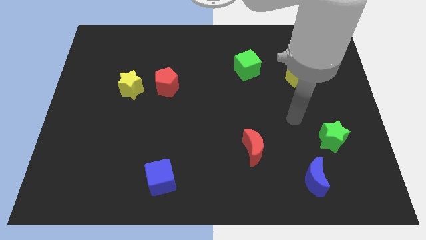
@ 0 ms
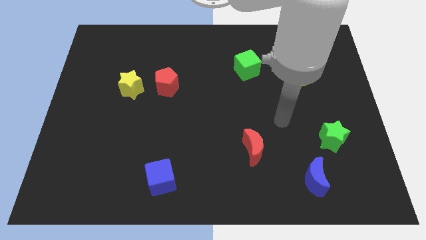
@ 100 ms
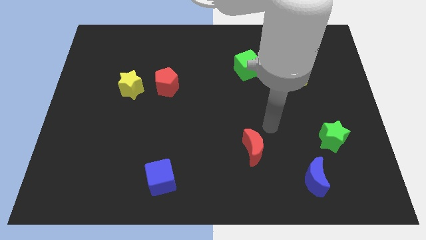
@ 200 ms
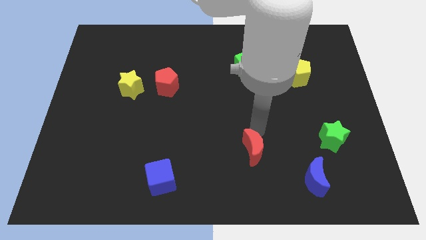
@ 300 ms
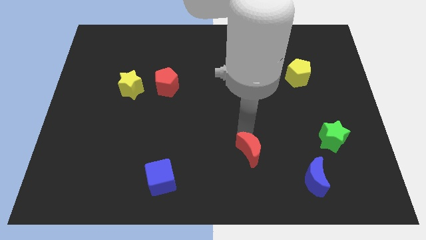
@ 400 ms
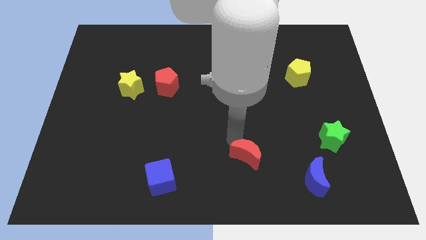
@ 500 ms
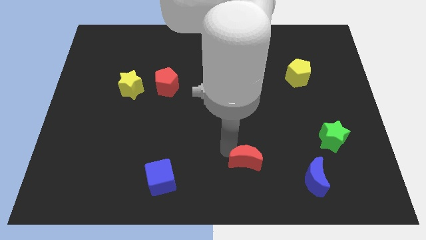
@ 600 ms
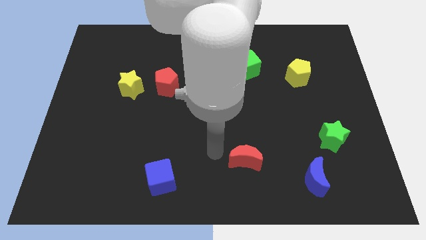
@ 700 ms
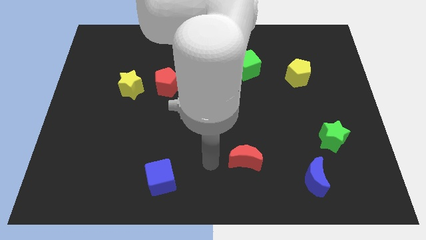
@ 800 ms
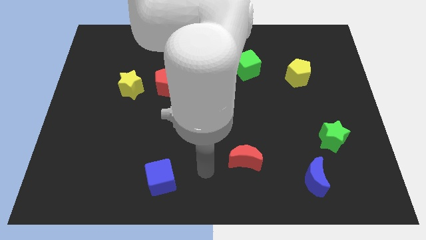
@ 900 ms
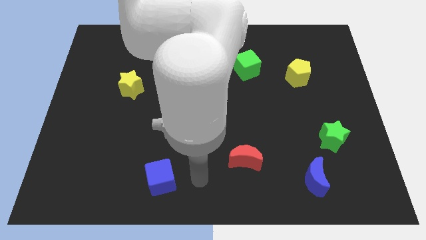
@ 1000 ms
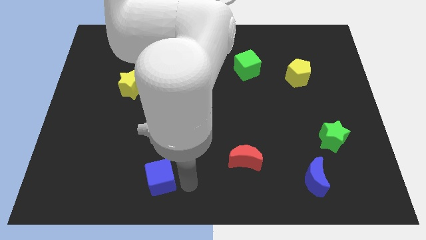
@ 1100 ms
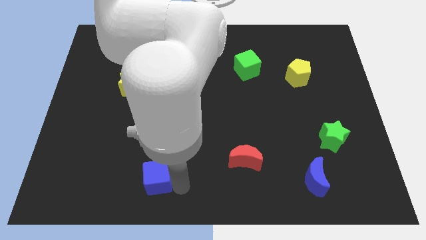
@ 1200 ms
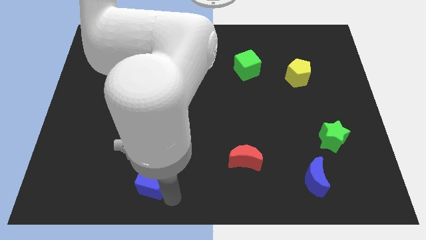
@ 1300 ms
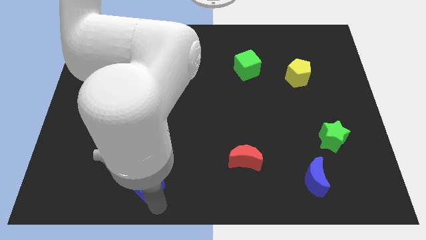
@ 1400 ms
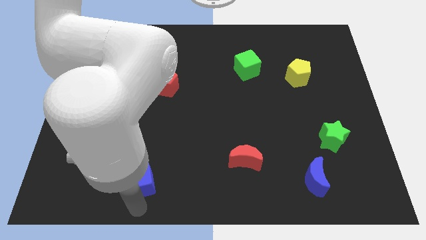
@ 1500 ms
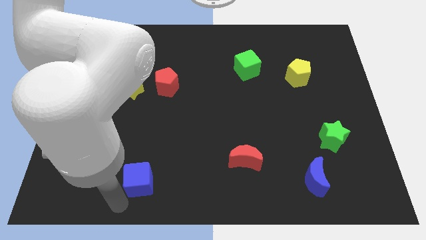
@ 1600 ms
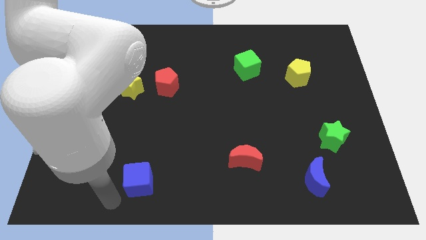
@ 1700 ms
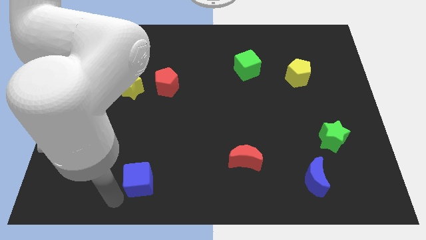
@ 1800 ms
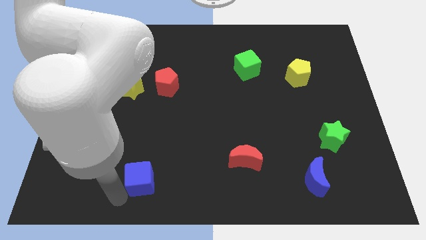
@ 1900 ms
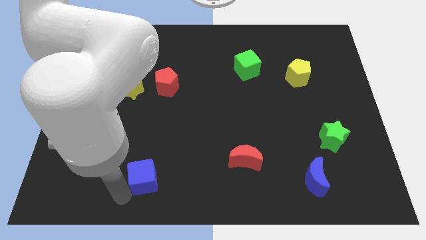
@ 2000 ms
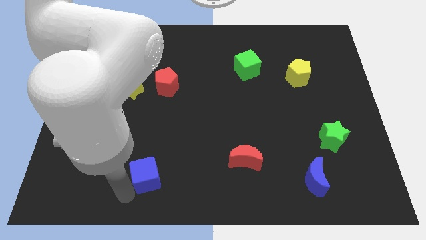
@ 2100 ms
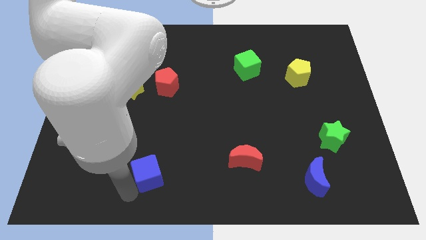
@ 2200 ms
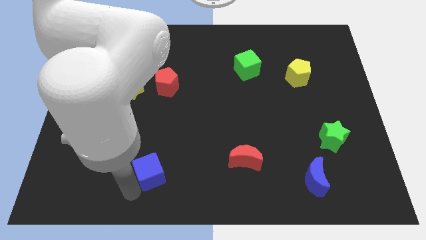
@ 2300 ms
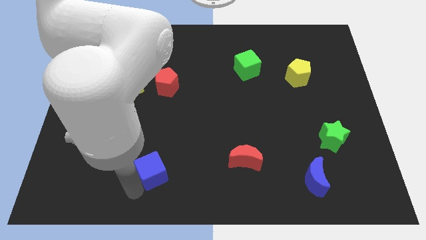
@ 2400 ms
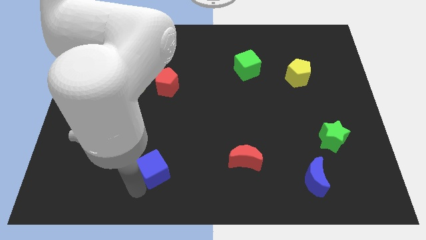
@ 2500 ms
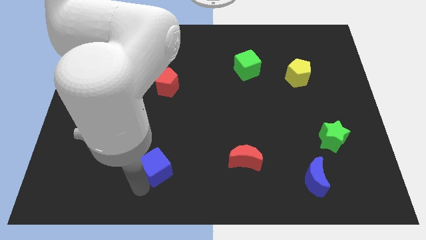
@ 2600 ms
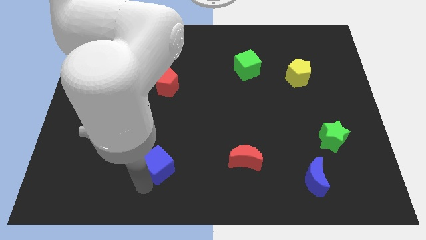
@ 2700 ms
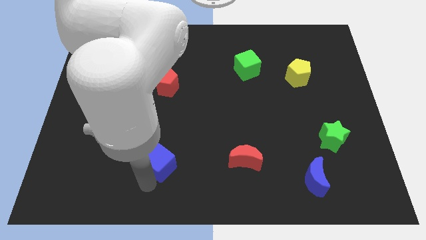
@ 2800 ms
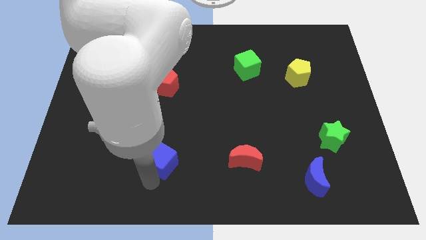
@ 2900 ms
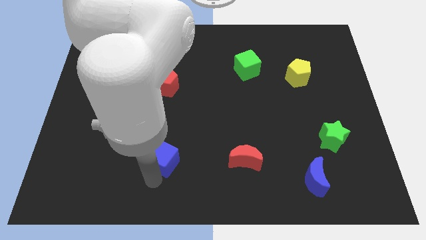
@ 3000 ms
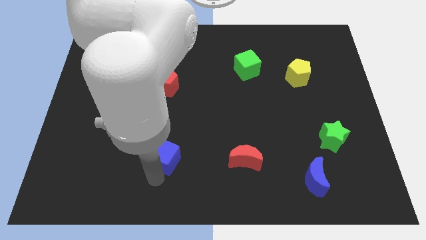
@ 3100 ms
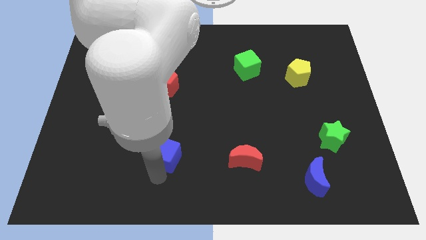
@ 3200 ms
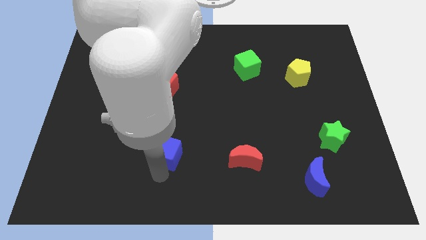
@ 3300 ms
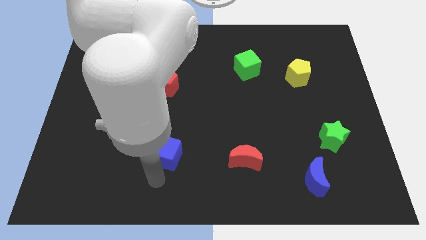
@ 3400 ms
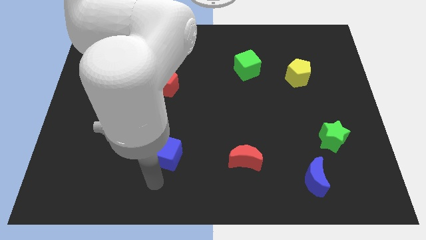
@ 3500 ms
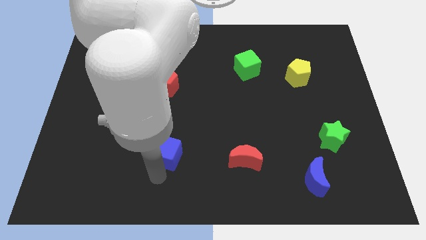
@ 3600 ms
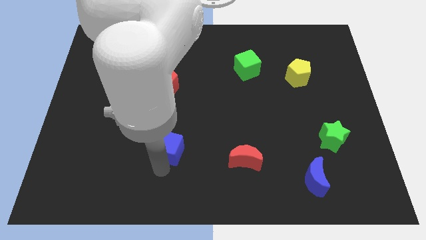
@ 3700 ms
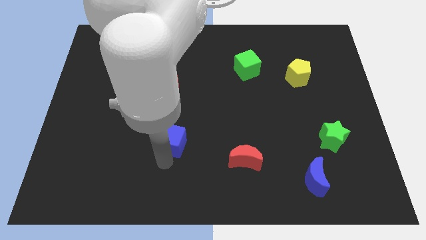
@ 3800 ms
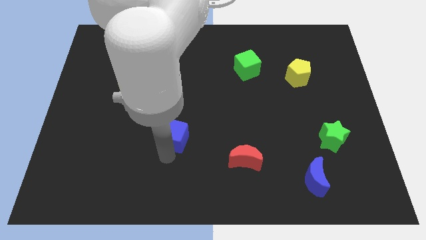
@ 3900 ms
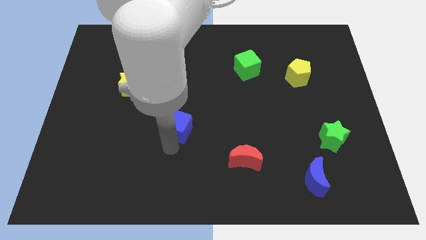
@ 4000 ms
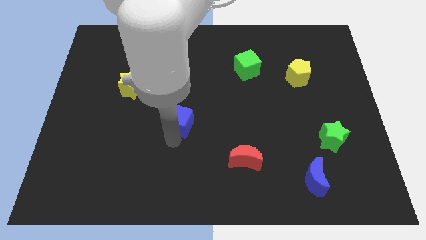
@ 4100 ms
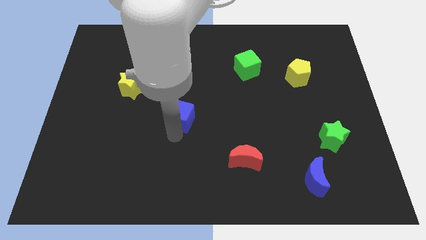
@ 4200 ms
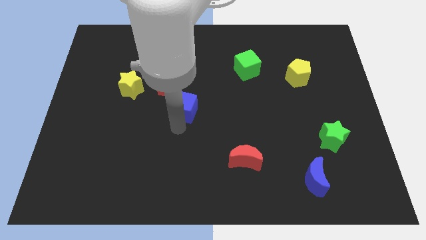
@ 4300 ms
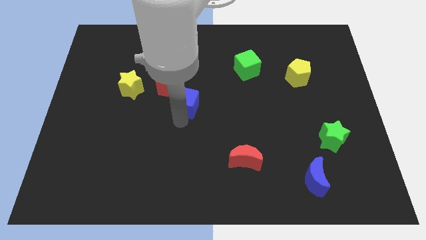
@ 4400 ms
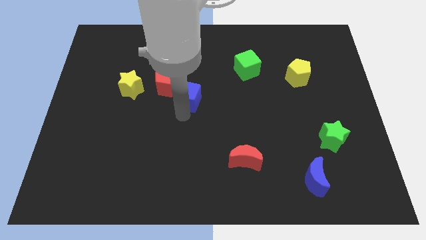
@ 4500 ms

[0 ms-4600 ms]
push the blue cube upwards

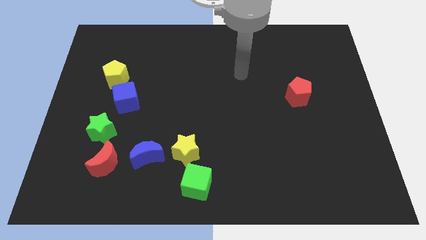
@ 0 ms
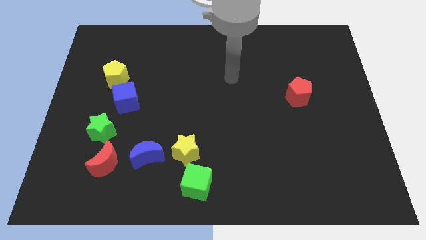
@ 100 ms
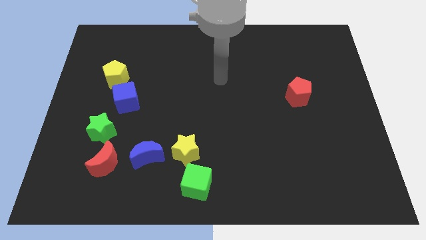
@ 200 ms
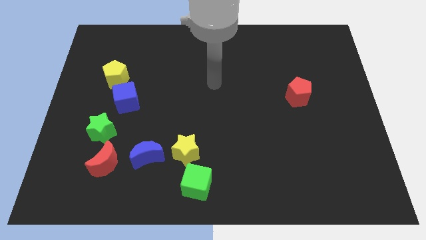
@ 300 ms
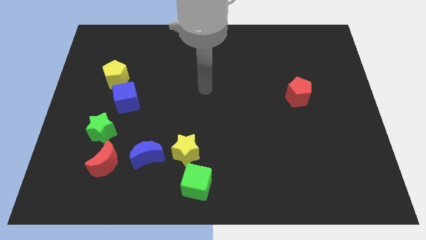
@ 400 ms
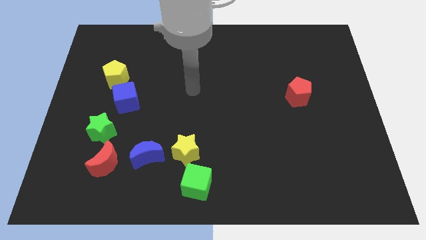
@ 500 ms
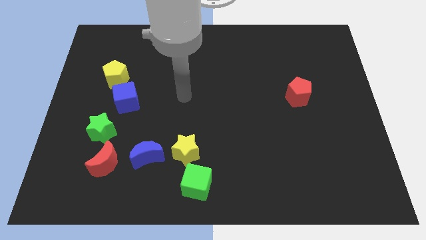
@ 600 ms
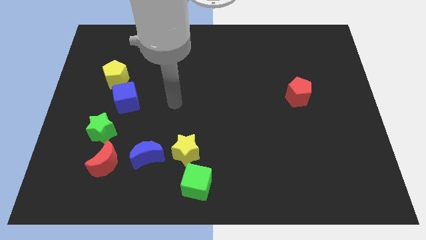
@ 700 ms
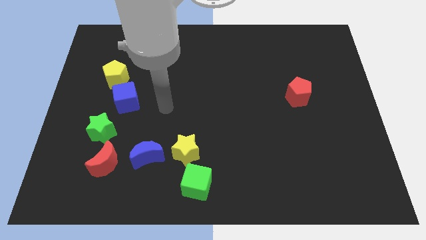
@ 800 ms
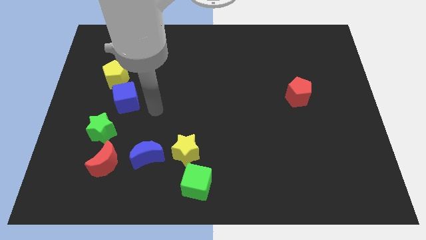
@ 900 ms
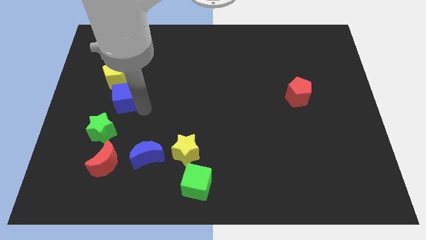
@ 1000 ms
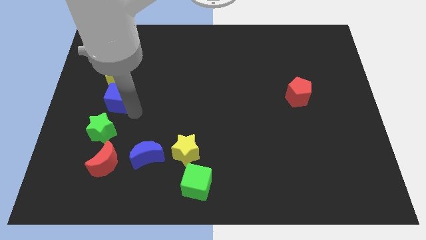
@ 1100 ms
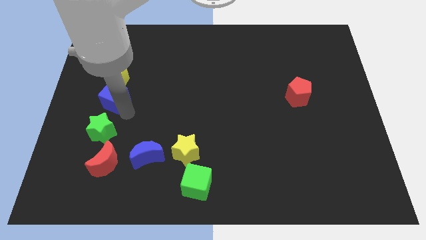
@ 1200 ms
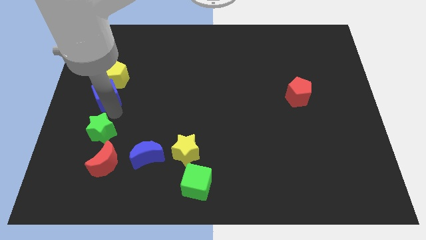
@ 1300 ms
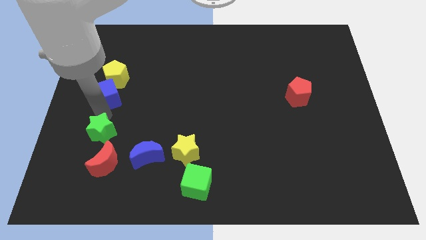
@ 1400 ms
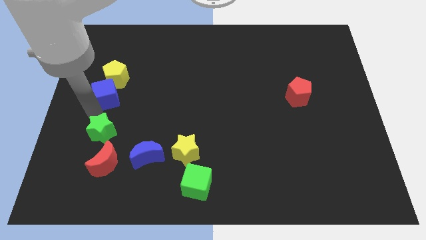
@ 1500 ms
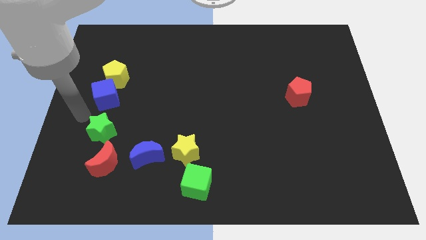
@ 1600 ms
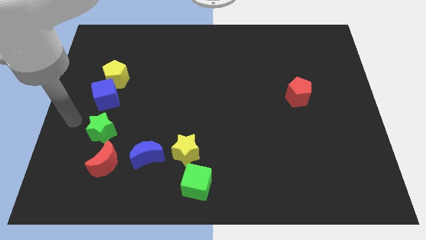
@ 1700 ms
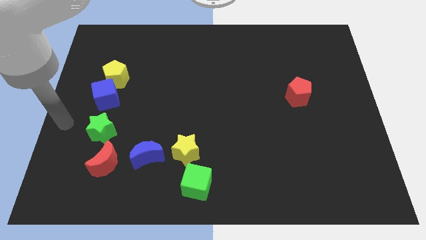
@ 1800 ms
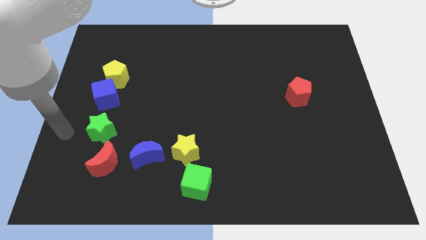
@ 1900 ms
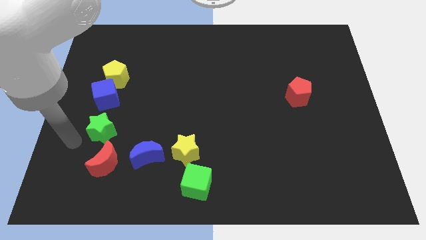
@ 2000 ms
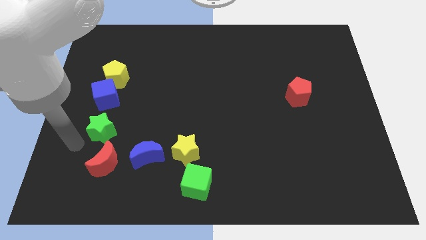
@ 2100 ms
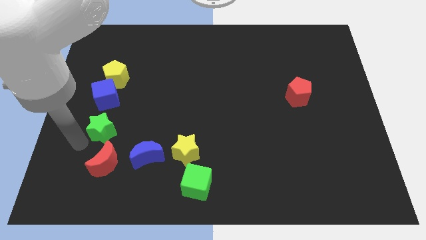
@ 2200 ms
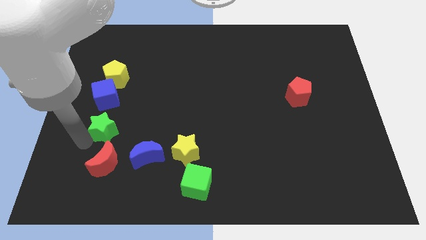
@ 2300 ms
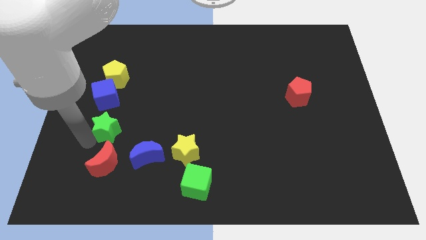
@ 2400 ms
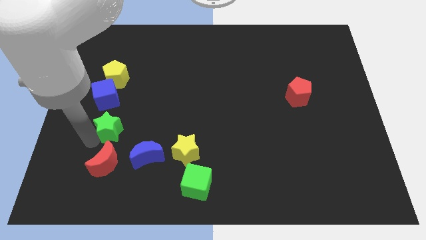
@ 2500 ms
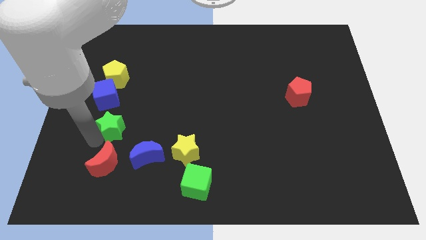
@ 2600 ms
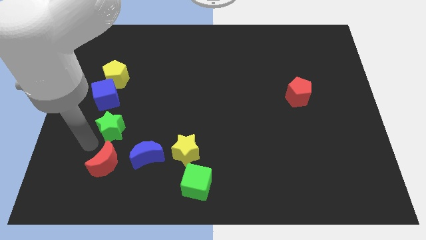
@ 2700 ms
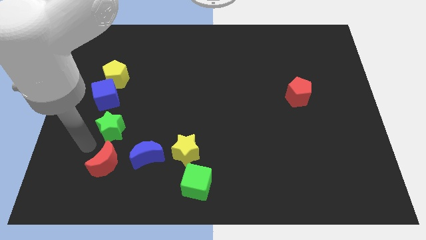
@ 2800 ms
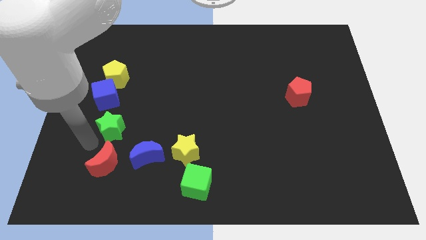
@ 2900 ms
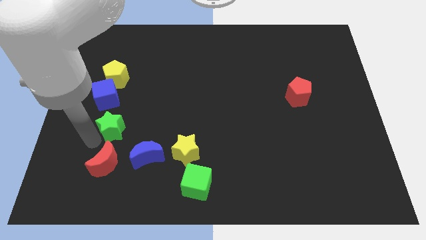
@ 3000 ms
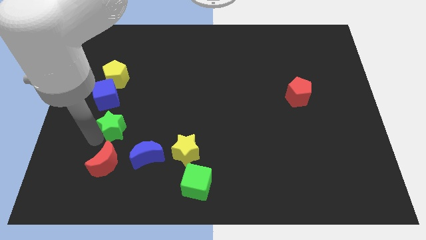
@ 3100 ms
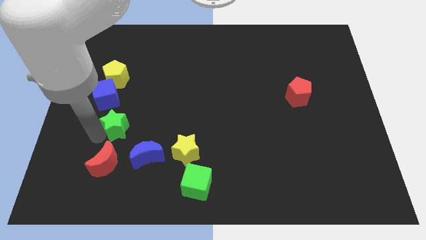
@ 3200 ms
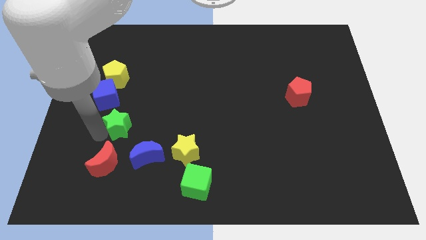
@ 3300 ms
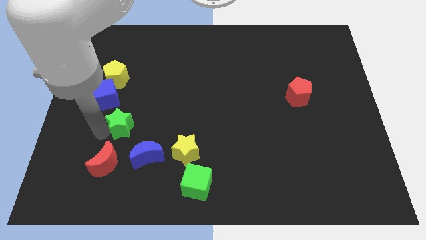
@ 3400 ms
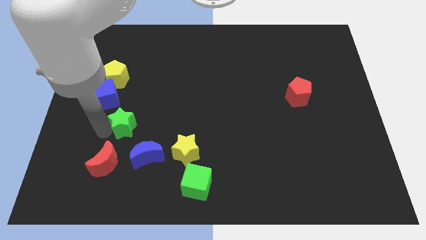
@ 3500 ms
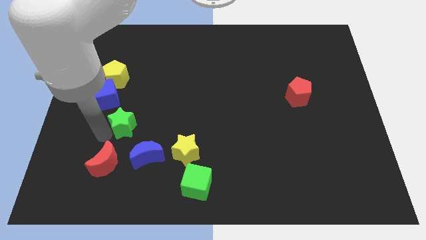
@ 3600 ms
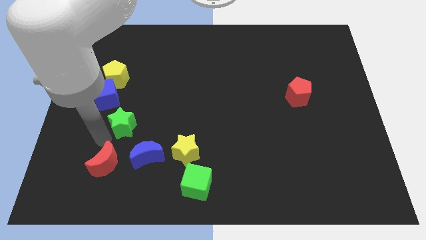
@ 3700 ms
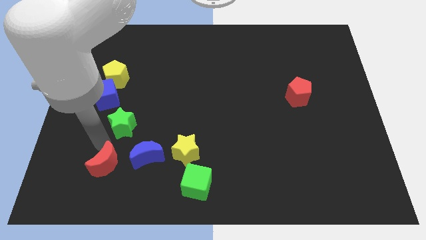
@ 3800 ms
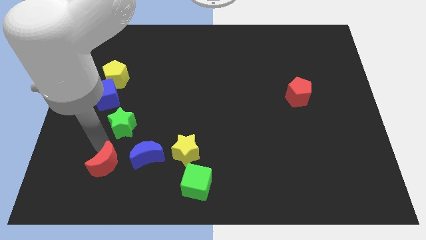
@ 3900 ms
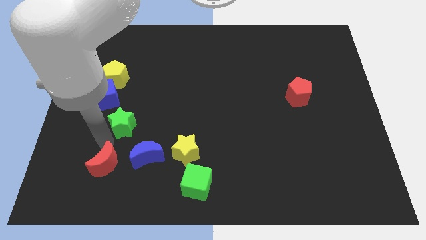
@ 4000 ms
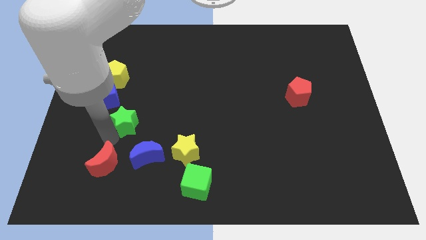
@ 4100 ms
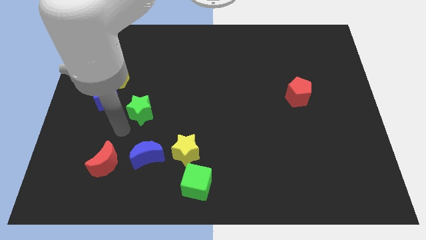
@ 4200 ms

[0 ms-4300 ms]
slightly slide the green star up and to the right diagonally
